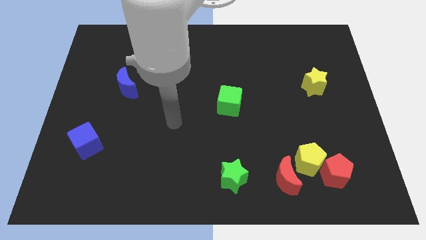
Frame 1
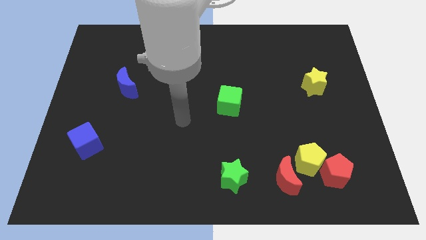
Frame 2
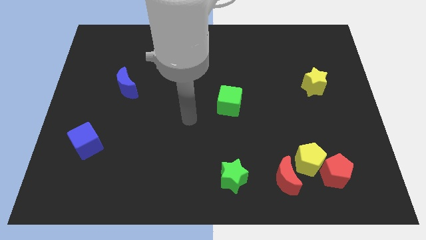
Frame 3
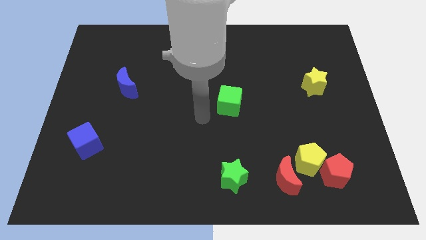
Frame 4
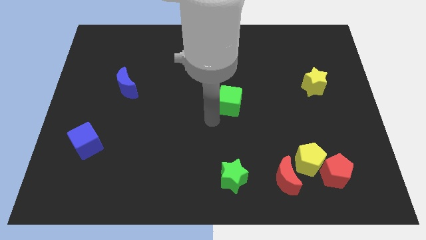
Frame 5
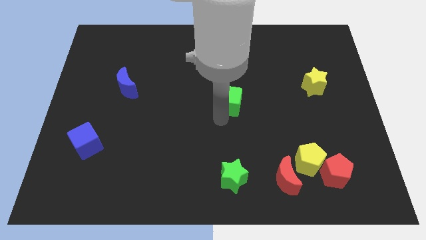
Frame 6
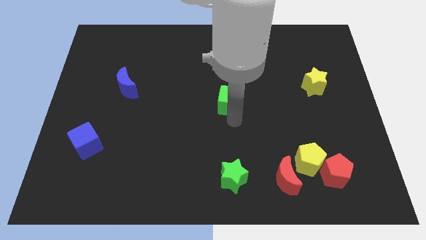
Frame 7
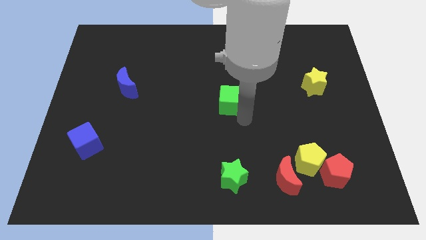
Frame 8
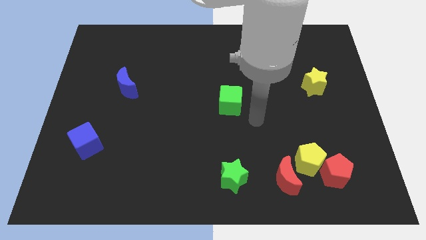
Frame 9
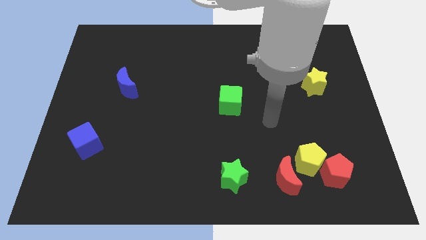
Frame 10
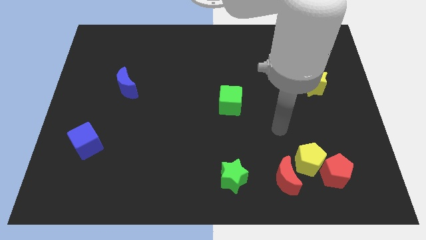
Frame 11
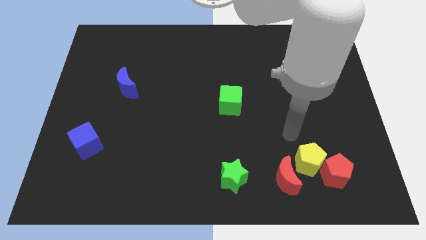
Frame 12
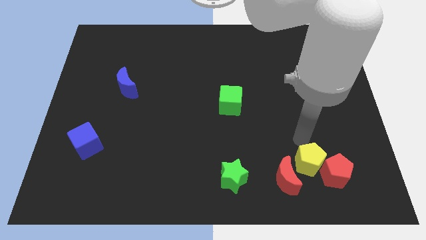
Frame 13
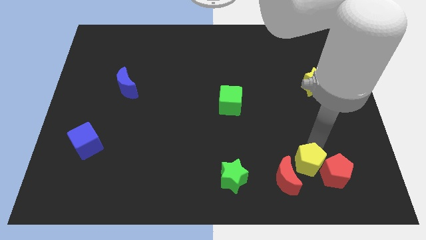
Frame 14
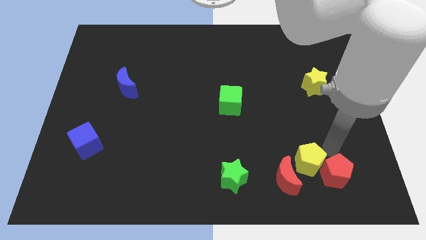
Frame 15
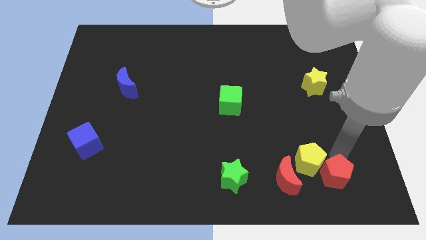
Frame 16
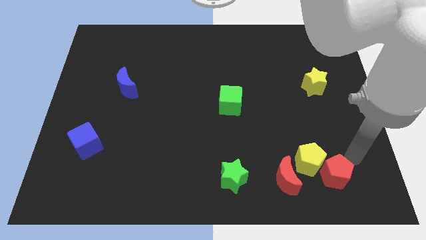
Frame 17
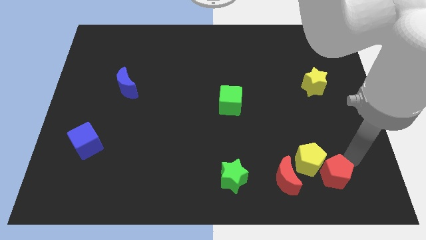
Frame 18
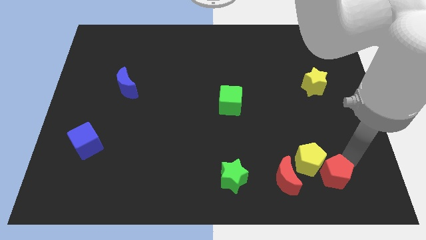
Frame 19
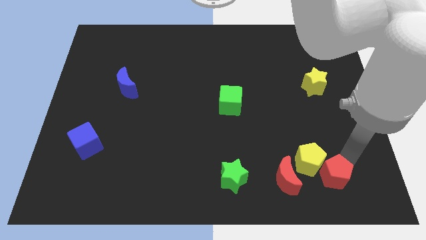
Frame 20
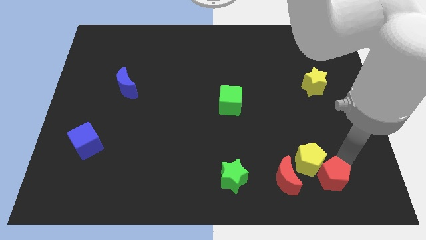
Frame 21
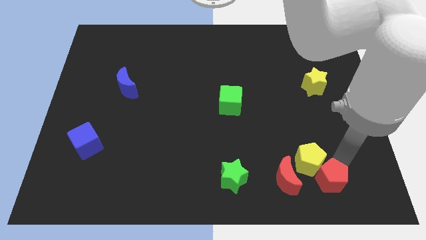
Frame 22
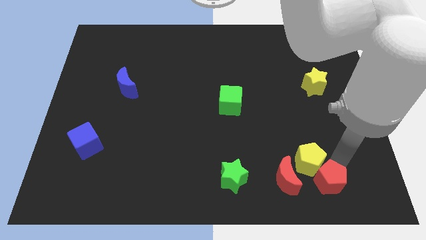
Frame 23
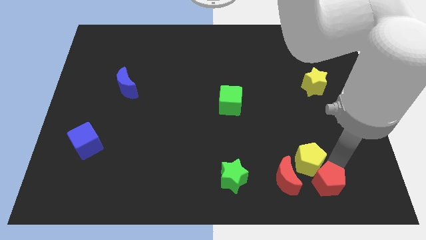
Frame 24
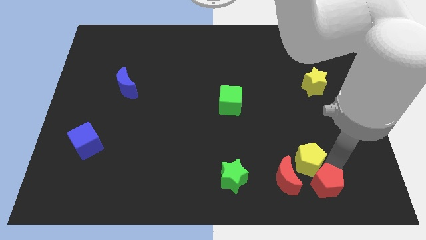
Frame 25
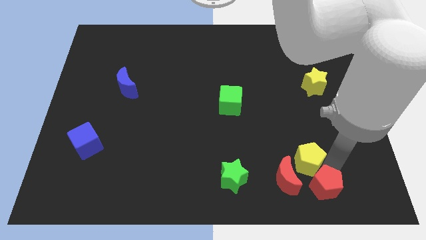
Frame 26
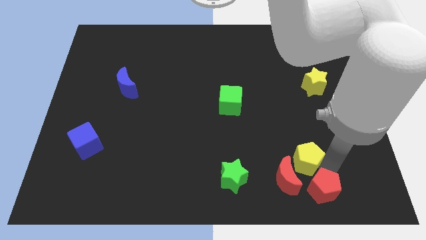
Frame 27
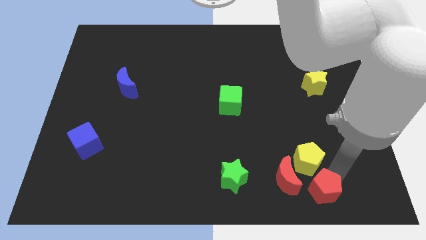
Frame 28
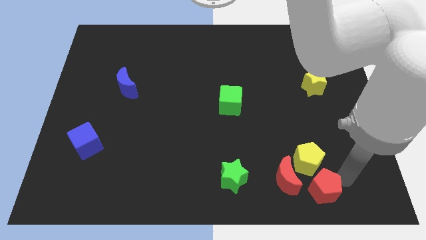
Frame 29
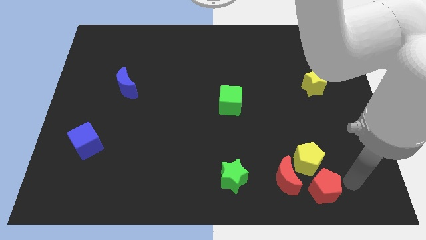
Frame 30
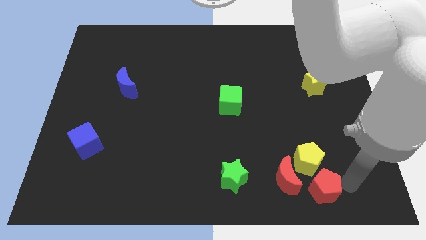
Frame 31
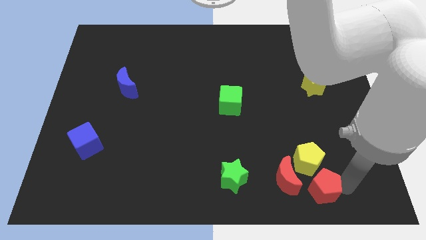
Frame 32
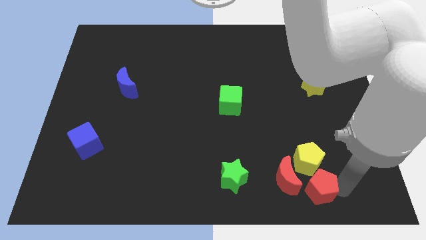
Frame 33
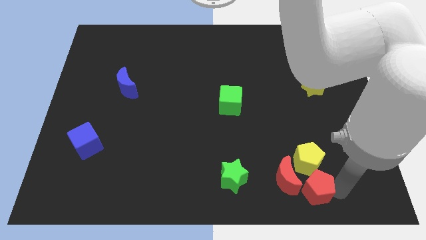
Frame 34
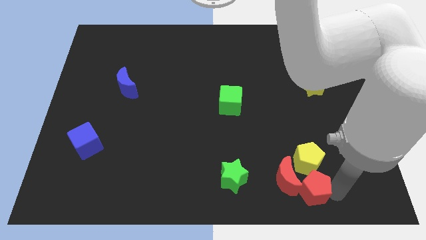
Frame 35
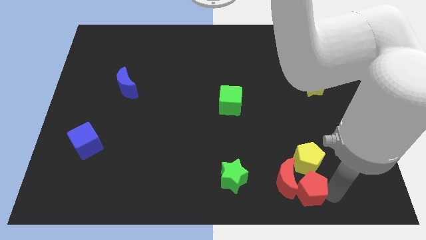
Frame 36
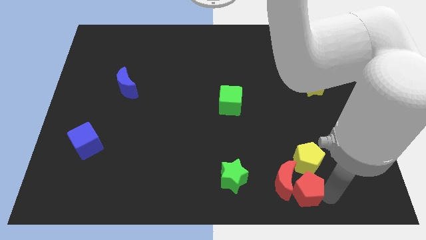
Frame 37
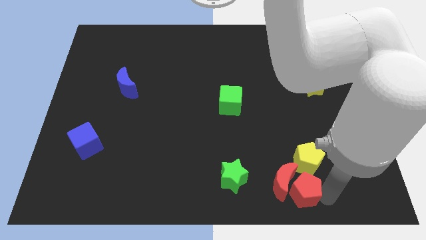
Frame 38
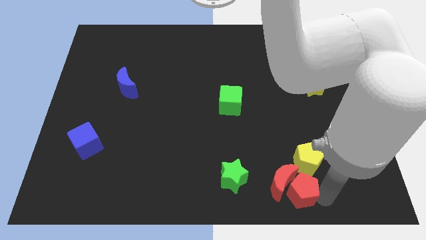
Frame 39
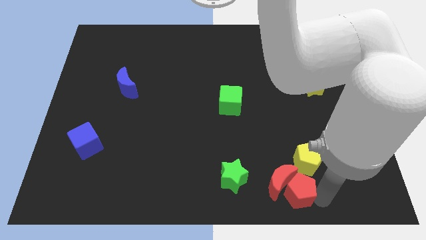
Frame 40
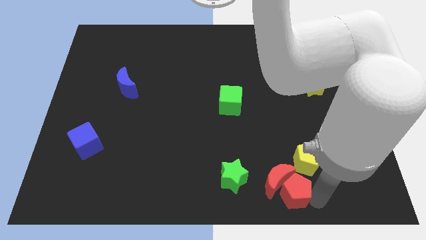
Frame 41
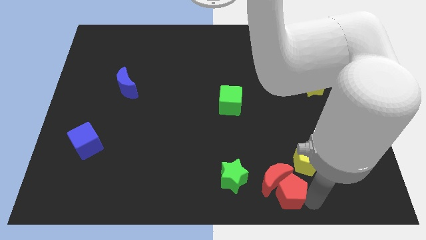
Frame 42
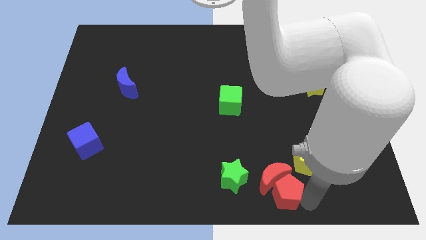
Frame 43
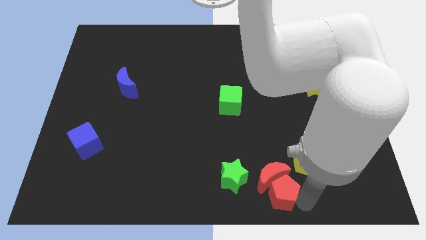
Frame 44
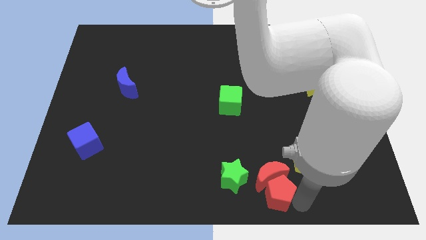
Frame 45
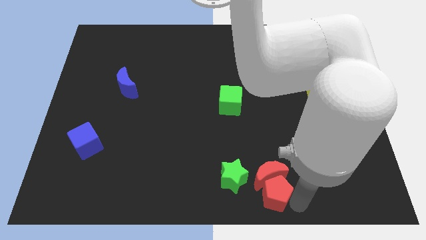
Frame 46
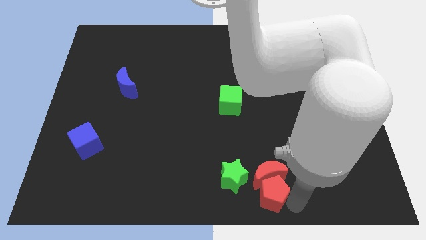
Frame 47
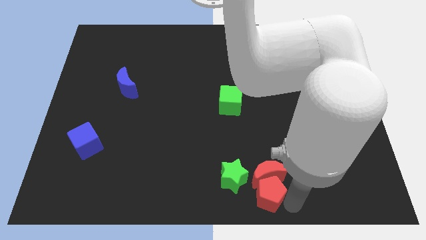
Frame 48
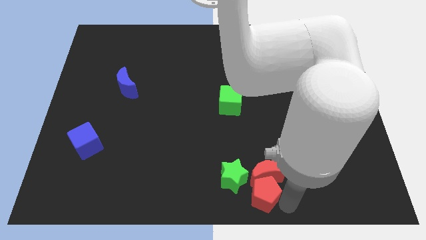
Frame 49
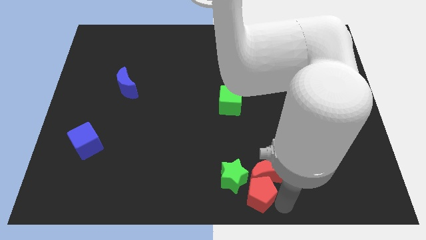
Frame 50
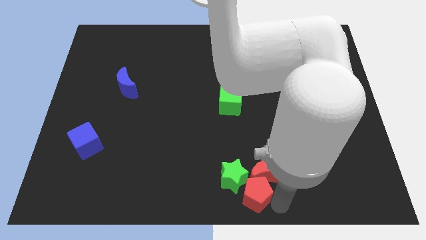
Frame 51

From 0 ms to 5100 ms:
slide the red pentagon towards the green star

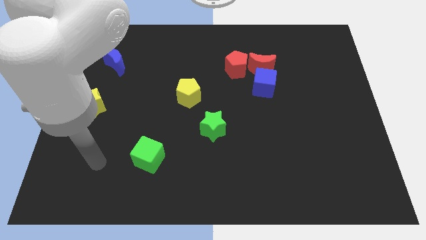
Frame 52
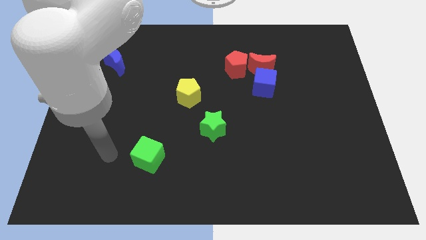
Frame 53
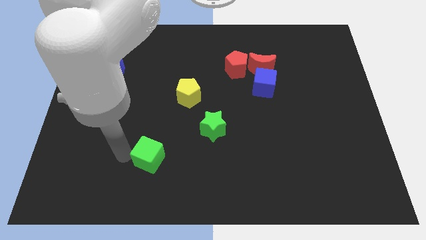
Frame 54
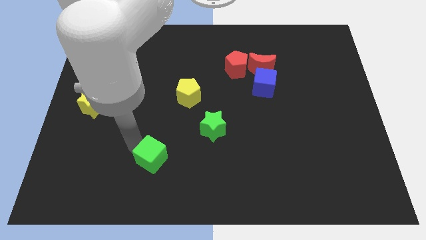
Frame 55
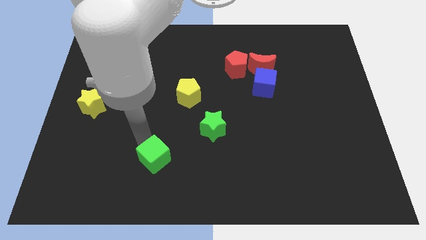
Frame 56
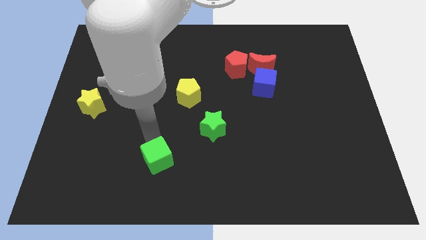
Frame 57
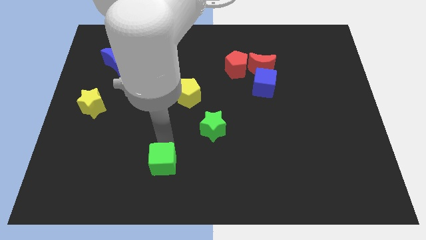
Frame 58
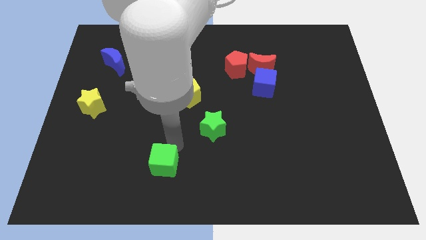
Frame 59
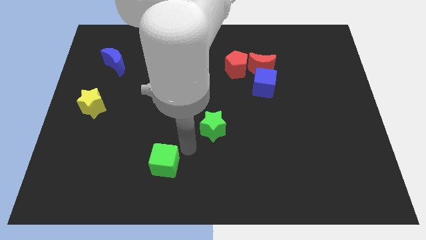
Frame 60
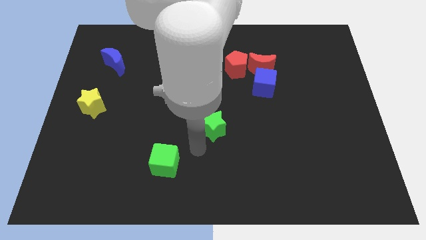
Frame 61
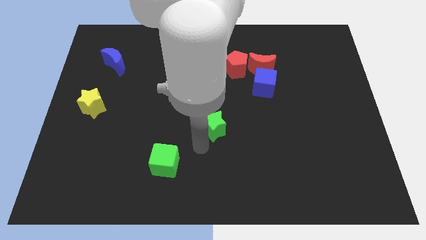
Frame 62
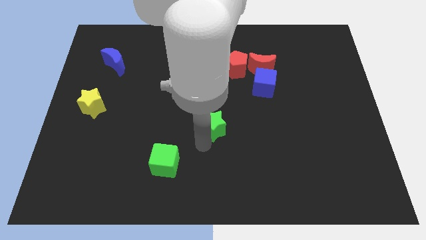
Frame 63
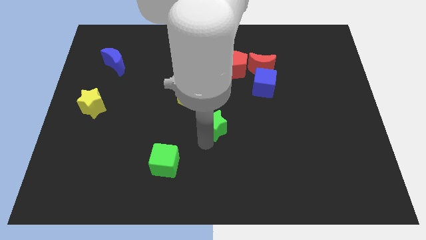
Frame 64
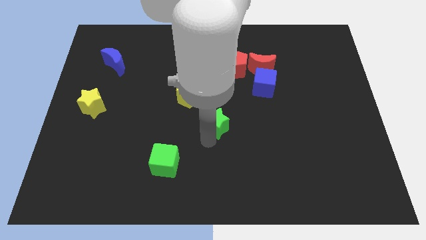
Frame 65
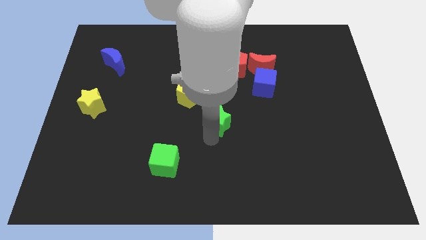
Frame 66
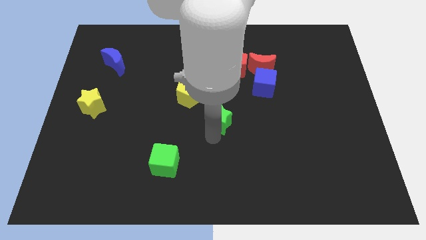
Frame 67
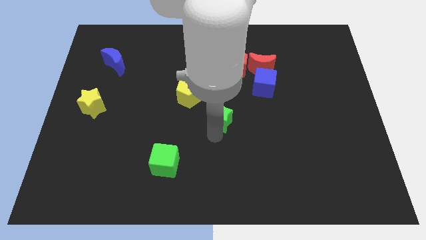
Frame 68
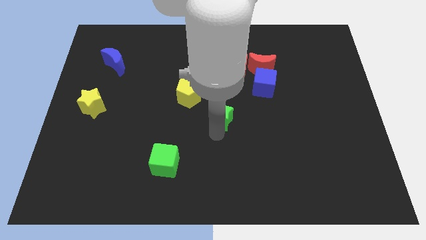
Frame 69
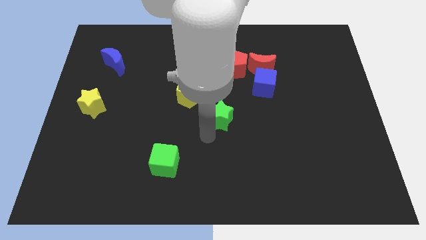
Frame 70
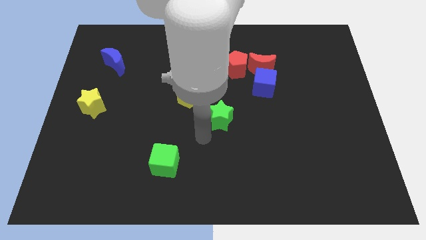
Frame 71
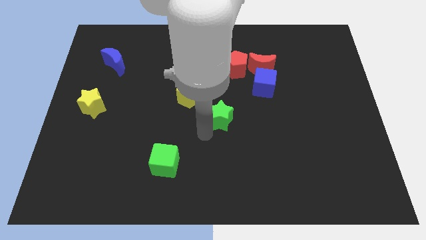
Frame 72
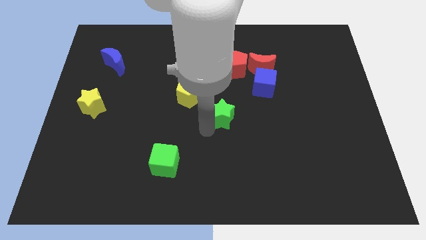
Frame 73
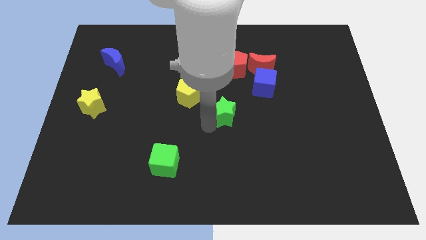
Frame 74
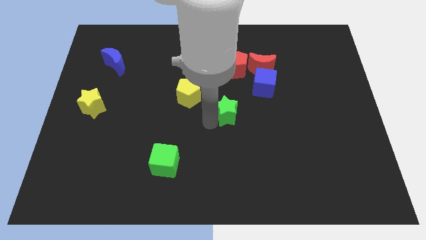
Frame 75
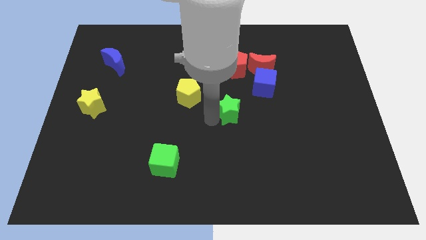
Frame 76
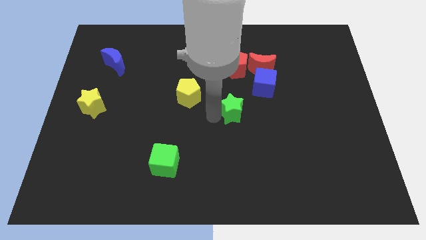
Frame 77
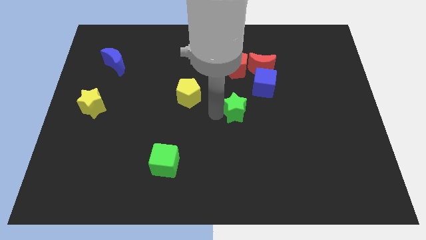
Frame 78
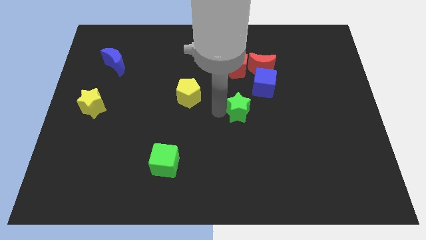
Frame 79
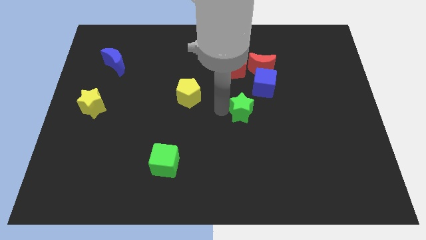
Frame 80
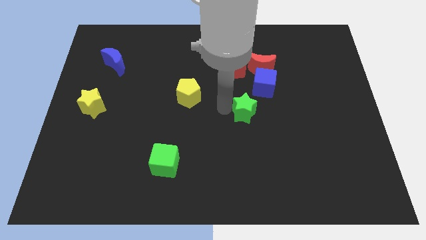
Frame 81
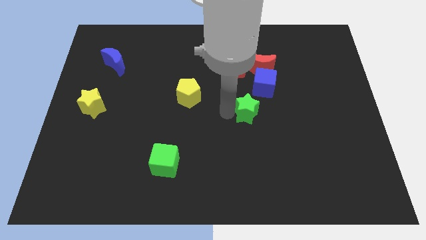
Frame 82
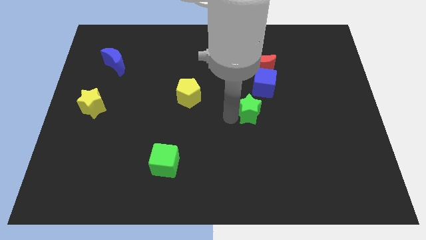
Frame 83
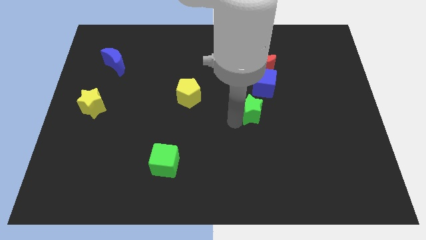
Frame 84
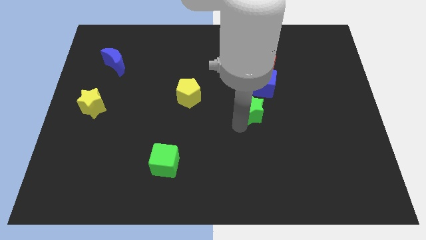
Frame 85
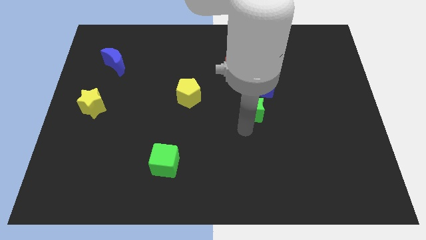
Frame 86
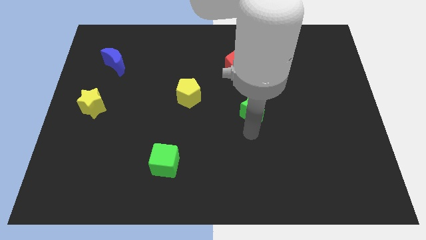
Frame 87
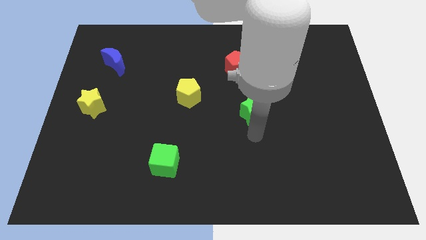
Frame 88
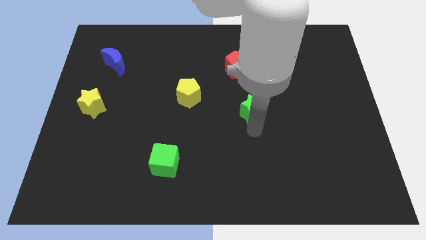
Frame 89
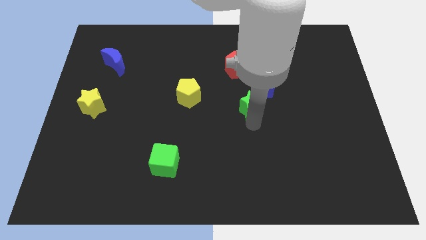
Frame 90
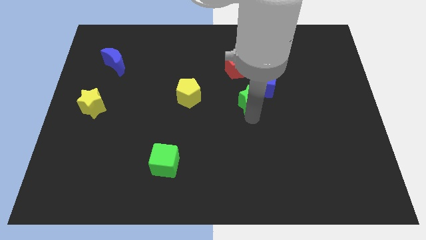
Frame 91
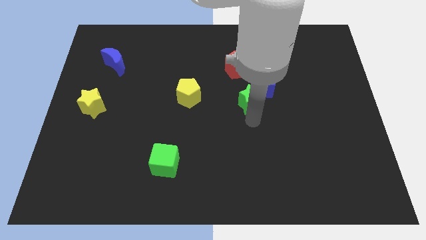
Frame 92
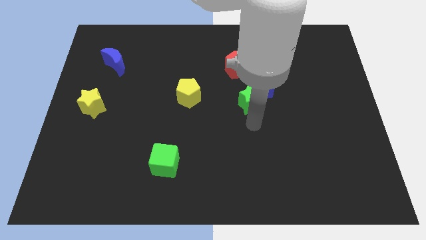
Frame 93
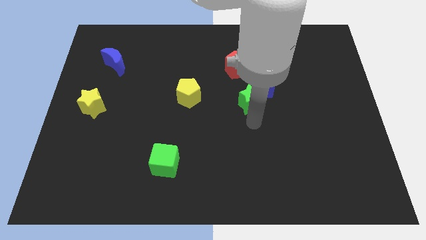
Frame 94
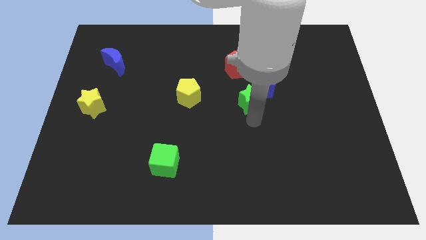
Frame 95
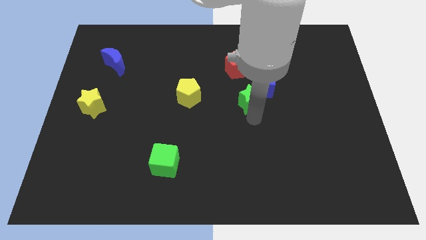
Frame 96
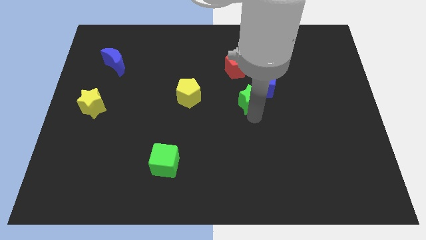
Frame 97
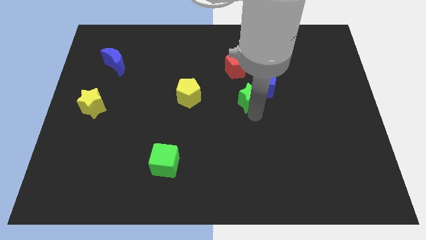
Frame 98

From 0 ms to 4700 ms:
push the green star towards the blue cube
